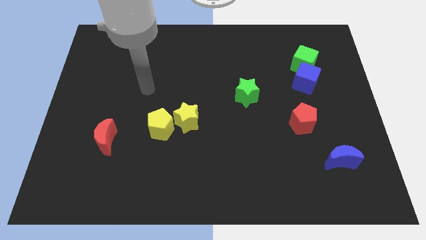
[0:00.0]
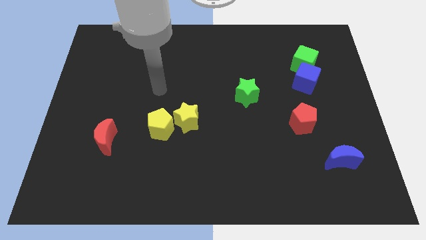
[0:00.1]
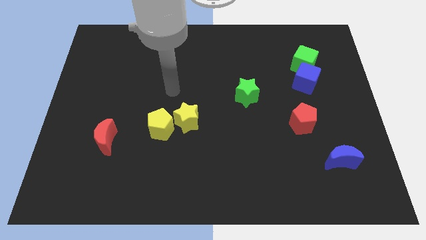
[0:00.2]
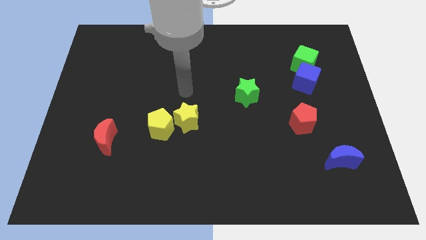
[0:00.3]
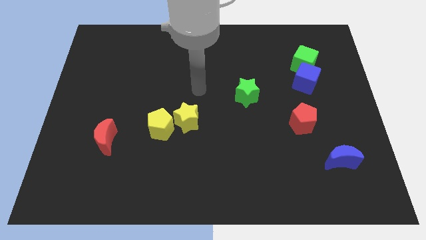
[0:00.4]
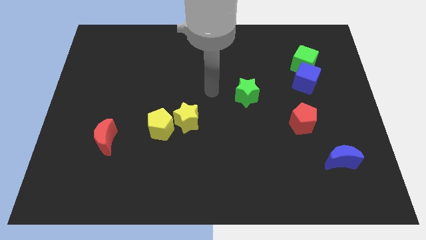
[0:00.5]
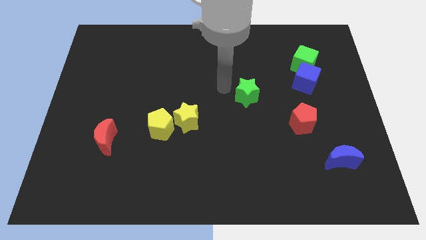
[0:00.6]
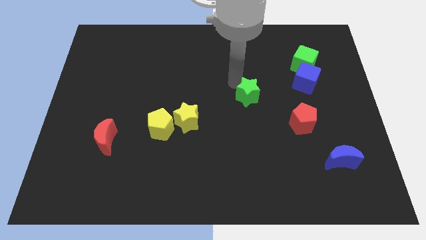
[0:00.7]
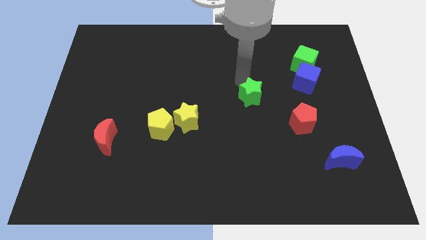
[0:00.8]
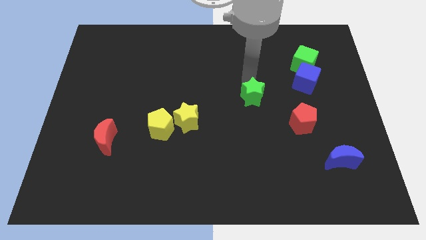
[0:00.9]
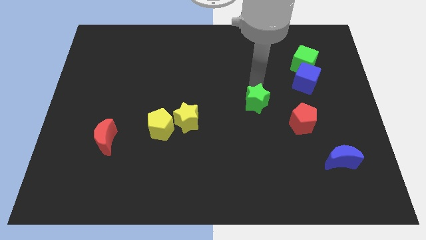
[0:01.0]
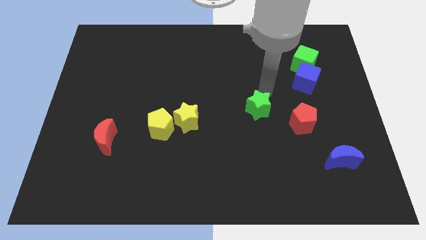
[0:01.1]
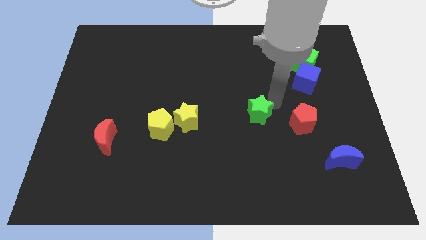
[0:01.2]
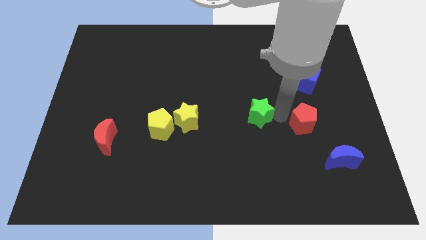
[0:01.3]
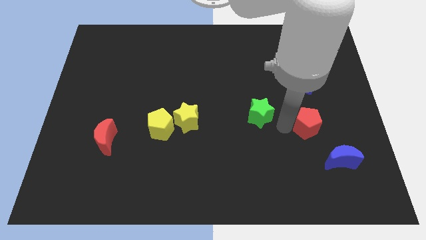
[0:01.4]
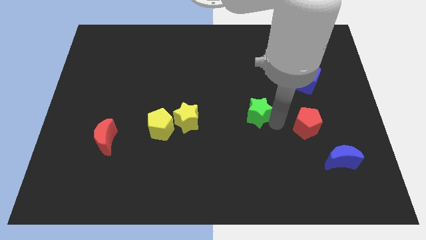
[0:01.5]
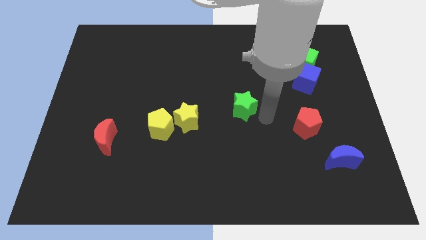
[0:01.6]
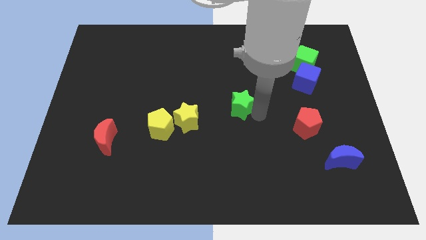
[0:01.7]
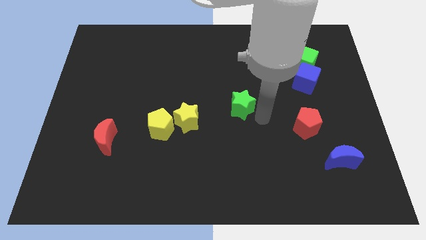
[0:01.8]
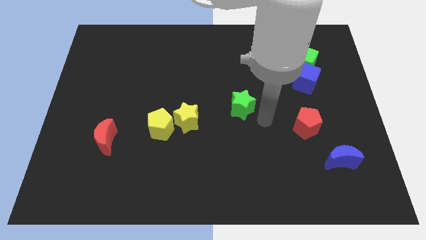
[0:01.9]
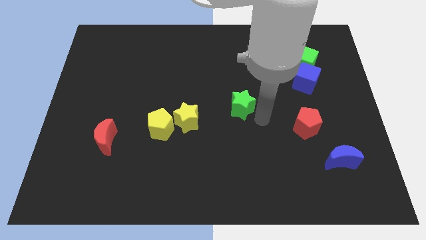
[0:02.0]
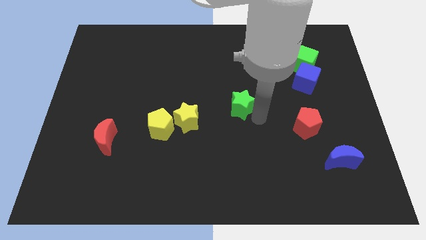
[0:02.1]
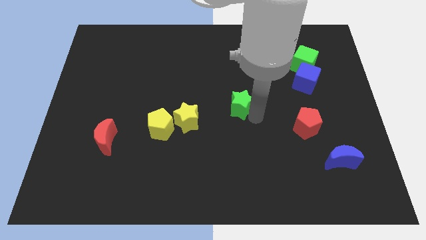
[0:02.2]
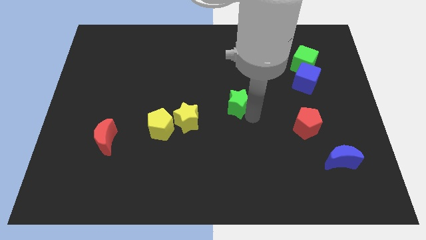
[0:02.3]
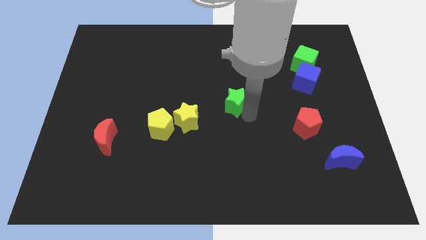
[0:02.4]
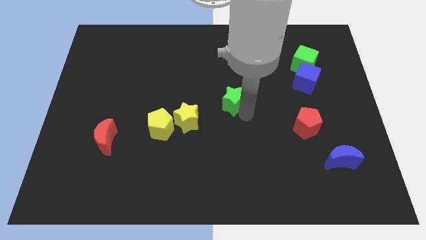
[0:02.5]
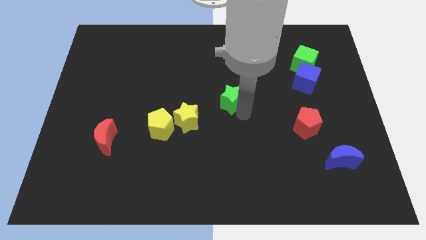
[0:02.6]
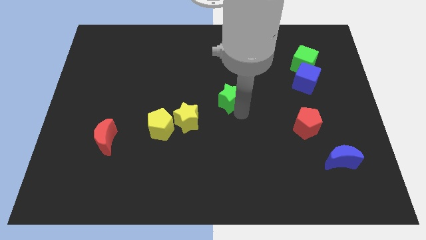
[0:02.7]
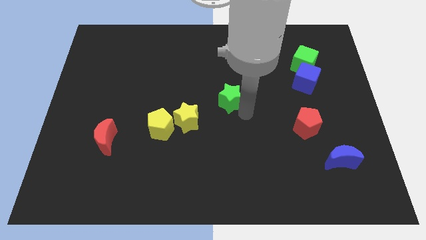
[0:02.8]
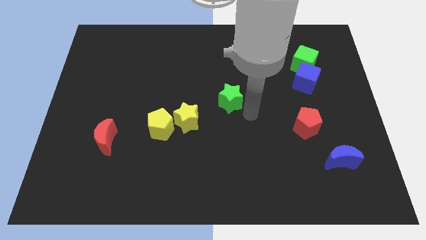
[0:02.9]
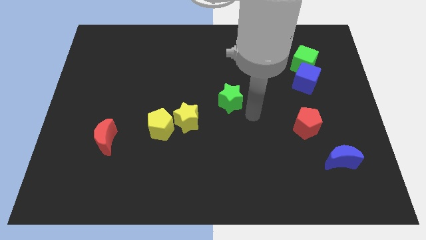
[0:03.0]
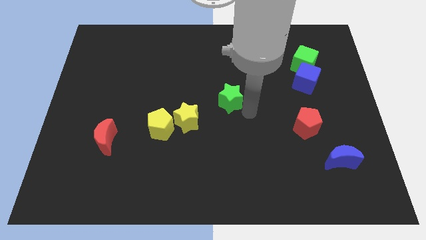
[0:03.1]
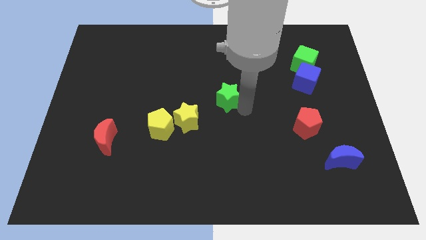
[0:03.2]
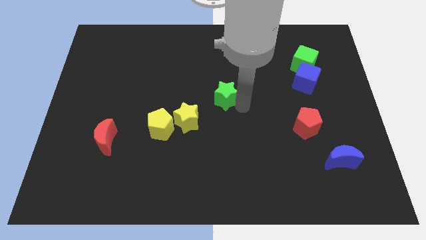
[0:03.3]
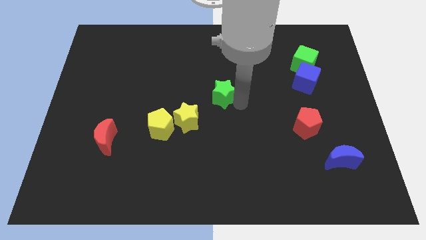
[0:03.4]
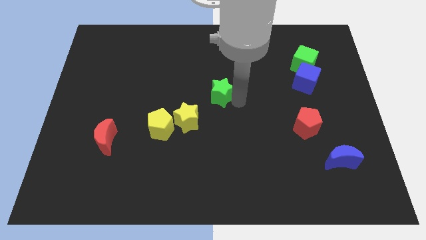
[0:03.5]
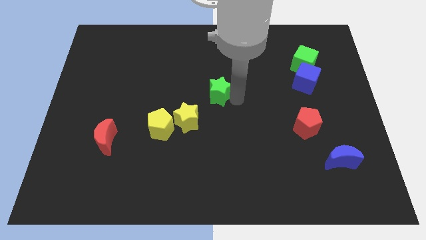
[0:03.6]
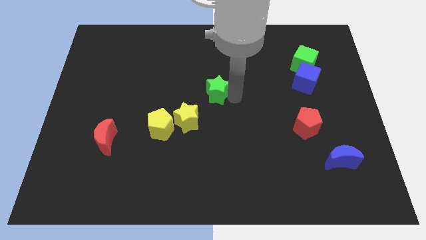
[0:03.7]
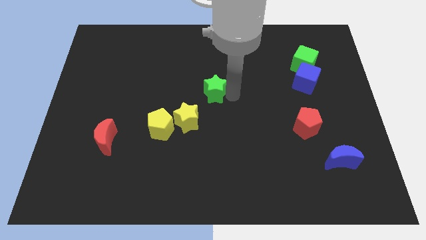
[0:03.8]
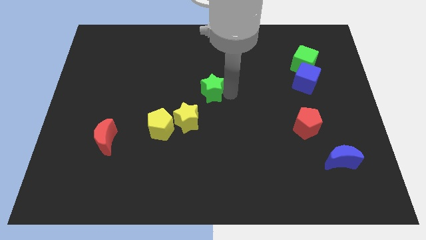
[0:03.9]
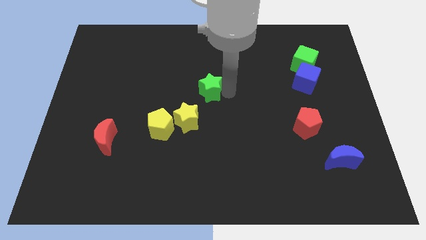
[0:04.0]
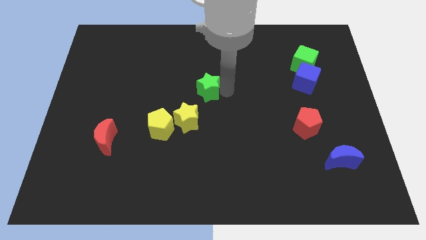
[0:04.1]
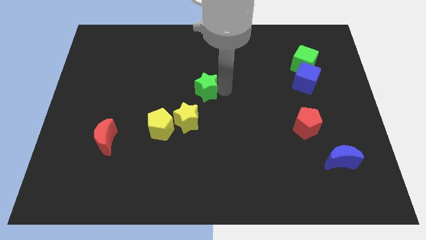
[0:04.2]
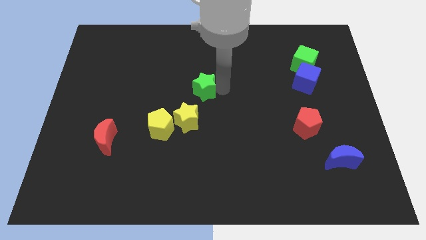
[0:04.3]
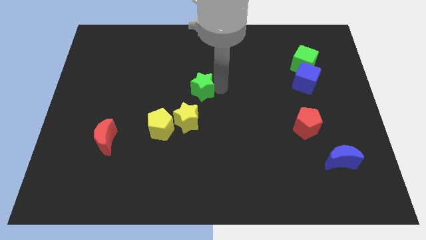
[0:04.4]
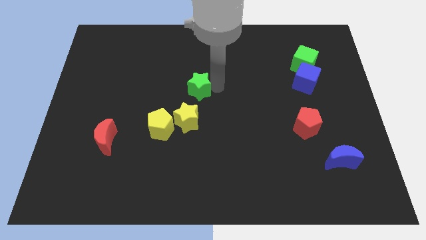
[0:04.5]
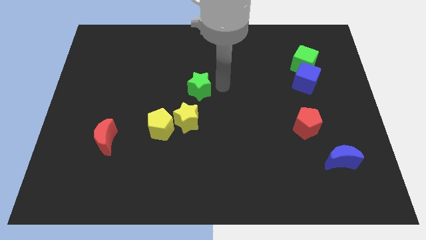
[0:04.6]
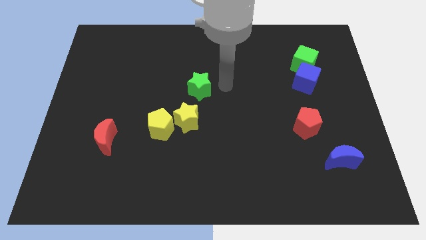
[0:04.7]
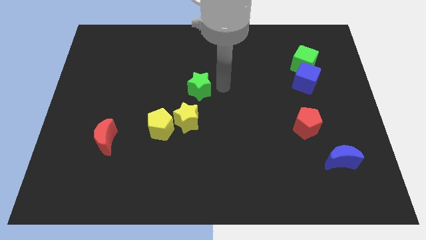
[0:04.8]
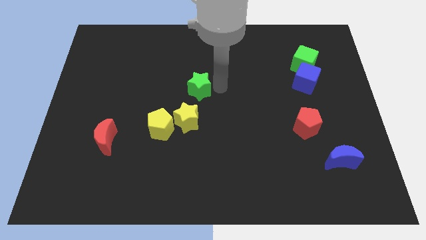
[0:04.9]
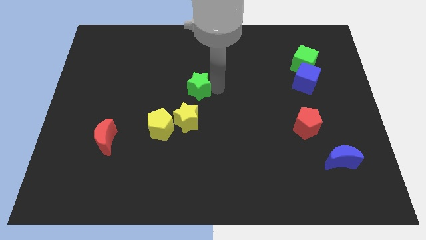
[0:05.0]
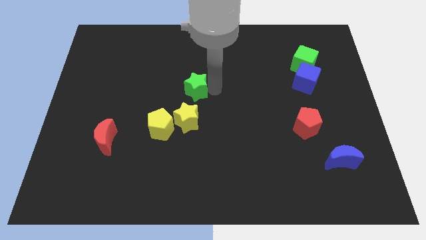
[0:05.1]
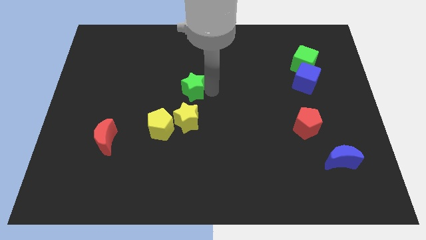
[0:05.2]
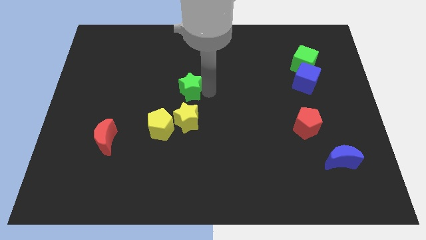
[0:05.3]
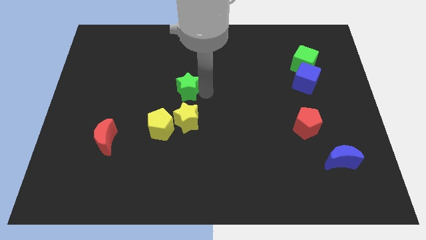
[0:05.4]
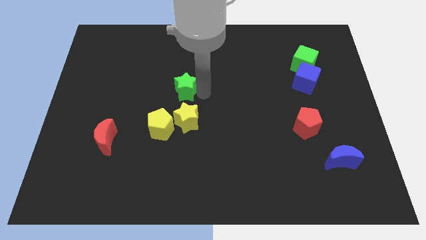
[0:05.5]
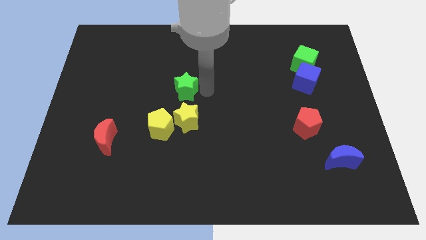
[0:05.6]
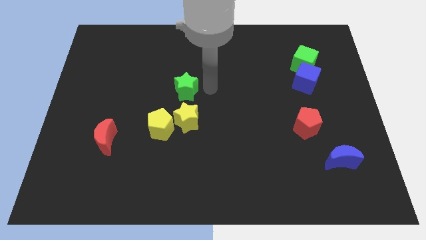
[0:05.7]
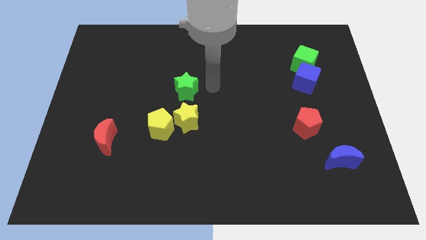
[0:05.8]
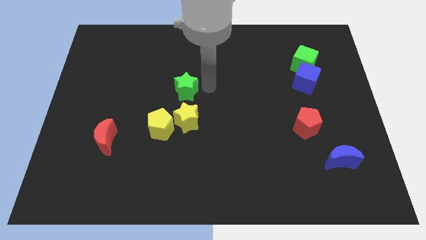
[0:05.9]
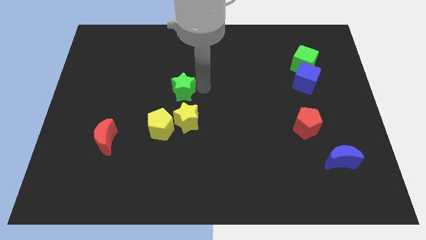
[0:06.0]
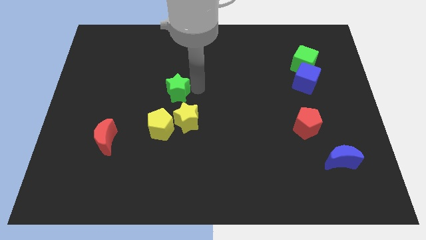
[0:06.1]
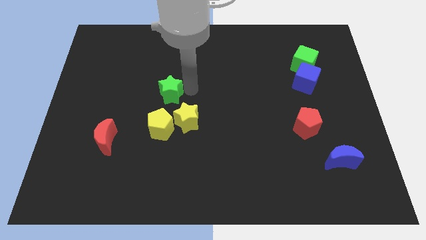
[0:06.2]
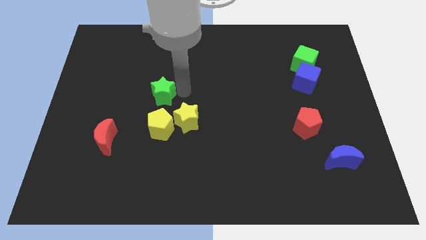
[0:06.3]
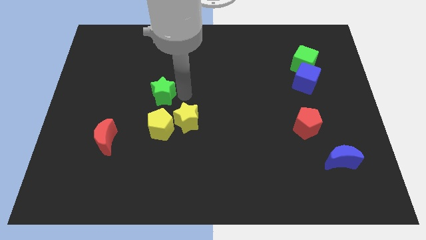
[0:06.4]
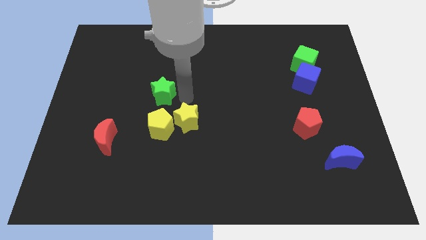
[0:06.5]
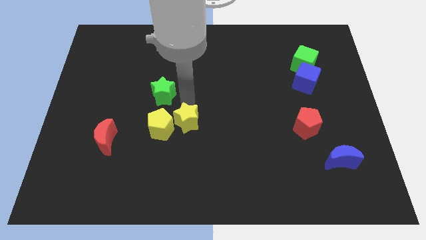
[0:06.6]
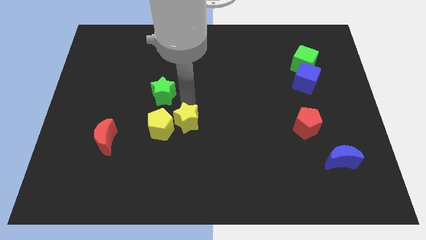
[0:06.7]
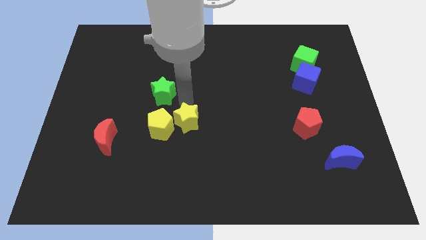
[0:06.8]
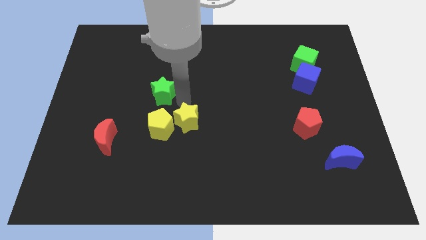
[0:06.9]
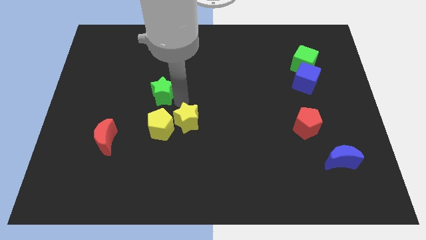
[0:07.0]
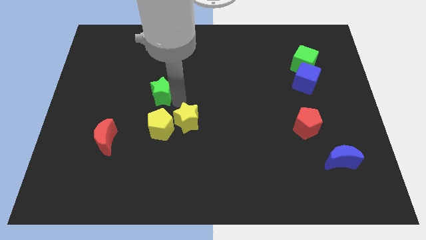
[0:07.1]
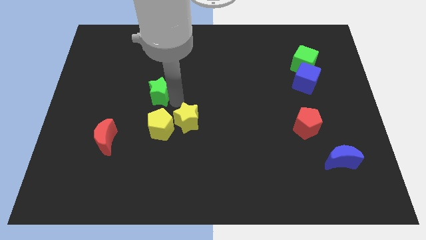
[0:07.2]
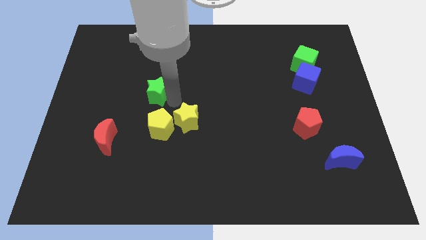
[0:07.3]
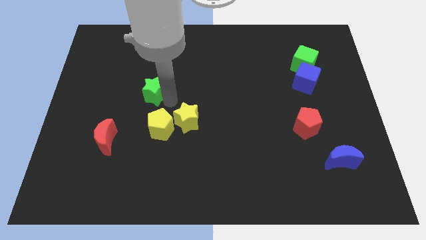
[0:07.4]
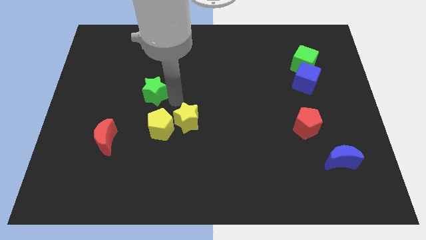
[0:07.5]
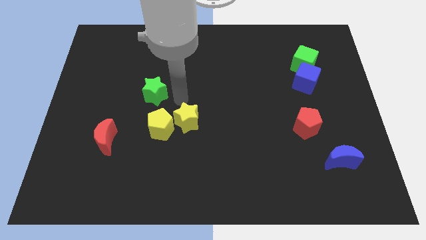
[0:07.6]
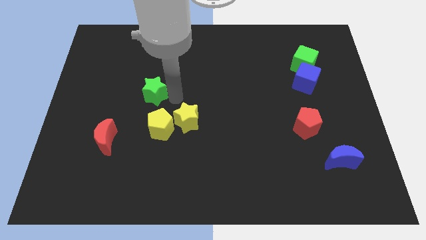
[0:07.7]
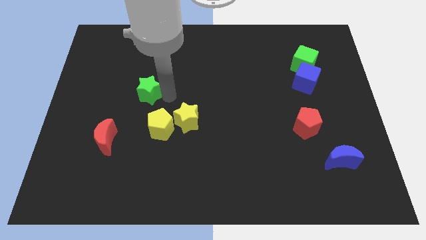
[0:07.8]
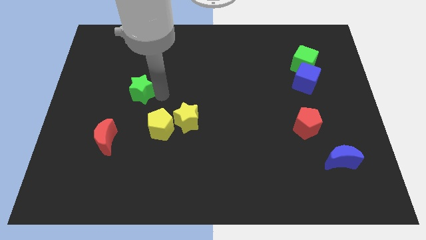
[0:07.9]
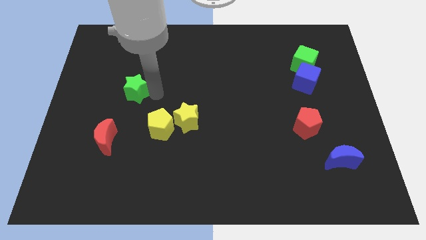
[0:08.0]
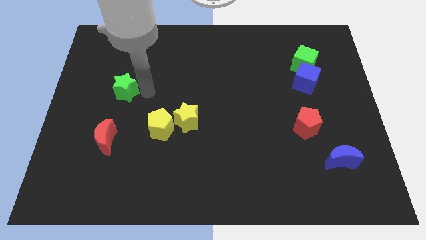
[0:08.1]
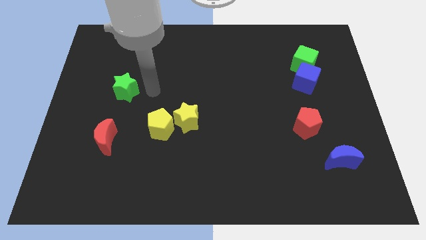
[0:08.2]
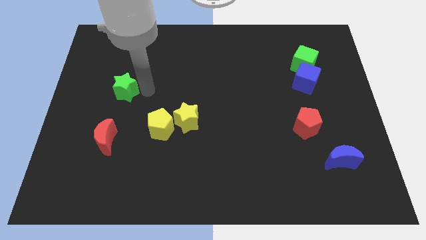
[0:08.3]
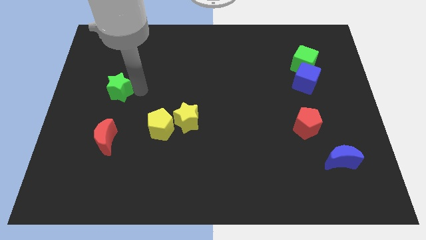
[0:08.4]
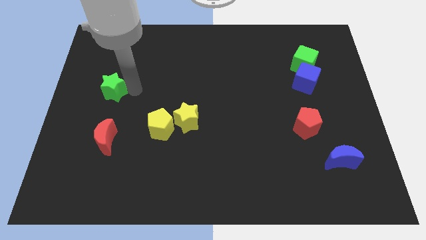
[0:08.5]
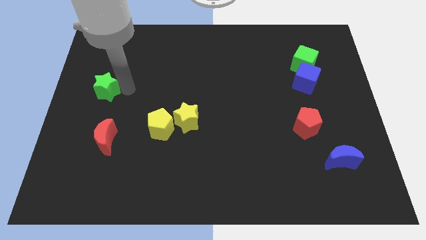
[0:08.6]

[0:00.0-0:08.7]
move the green star to the left side
